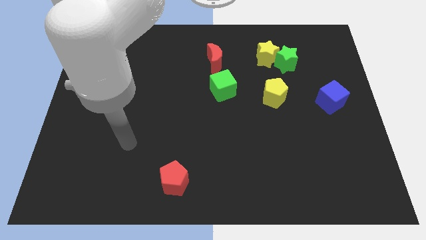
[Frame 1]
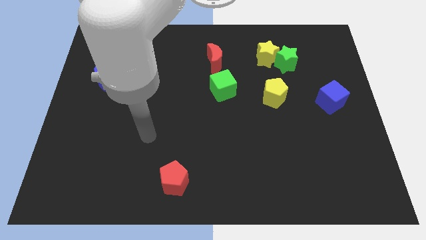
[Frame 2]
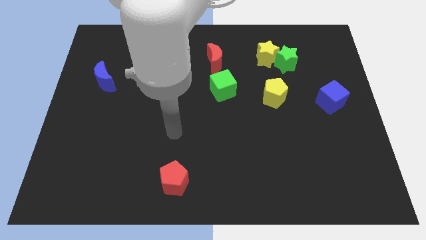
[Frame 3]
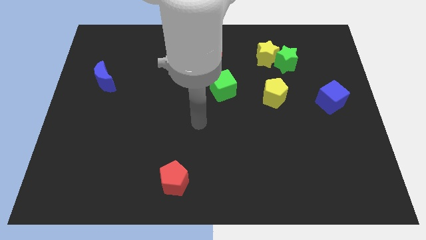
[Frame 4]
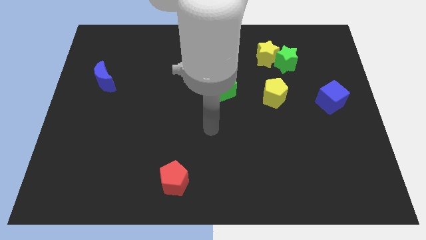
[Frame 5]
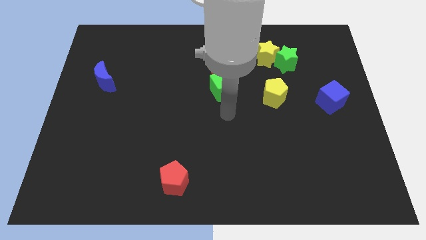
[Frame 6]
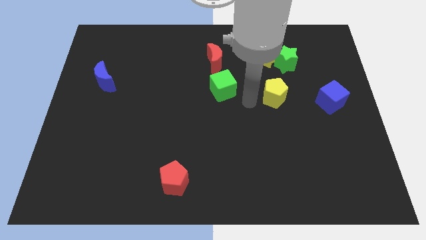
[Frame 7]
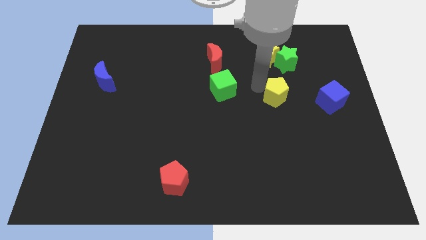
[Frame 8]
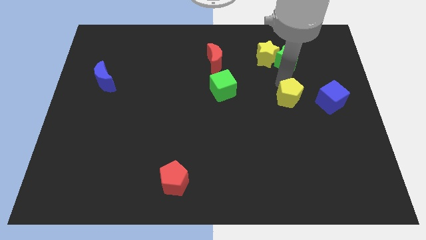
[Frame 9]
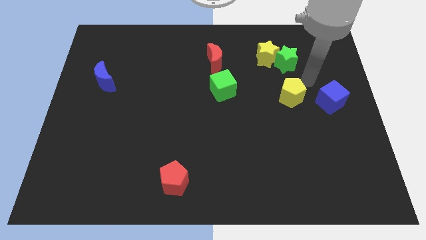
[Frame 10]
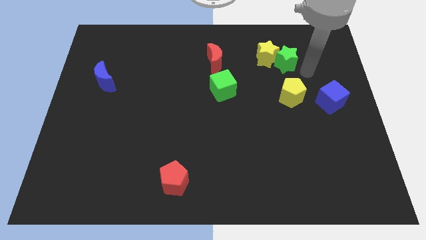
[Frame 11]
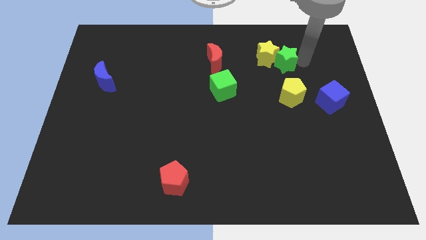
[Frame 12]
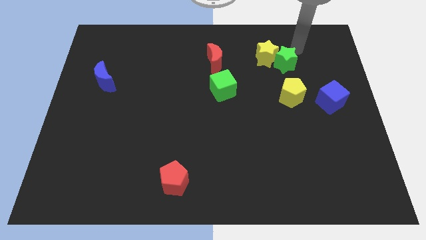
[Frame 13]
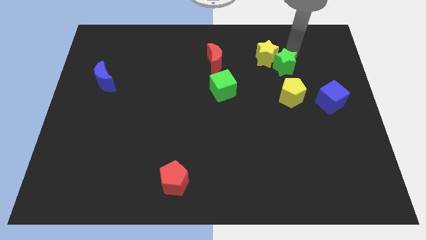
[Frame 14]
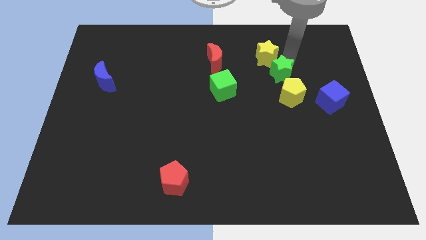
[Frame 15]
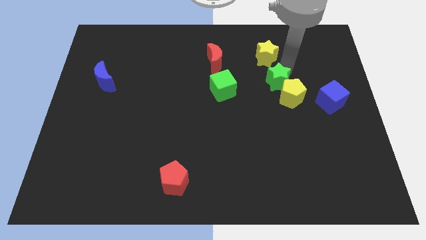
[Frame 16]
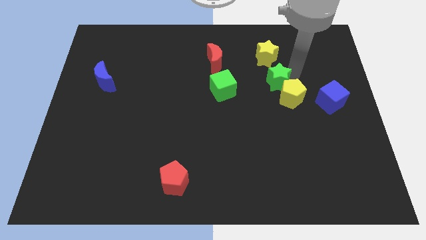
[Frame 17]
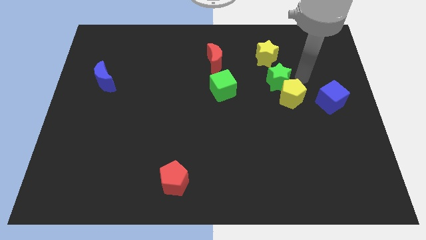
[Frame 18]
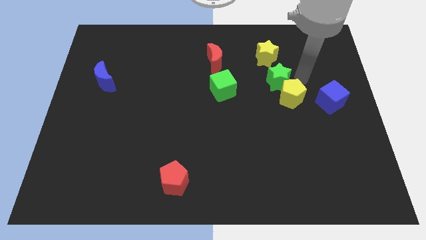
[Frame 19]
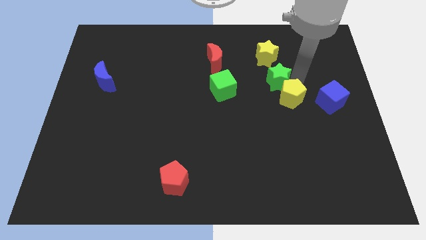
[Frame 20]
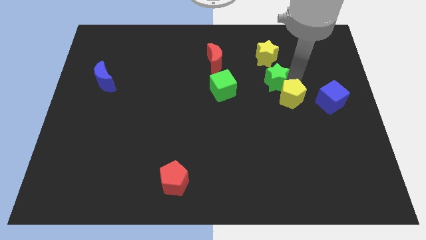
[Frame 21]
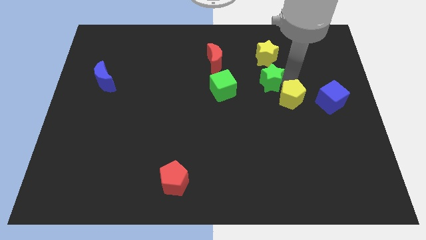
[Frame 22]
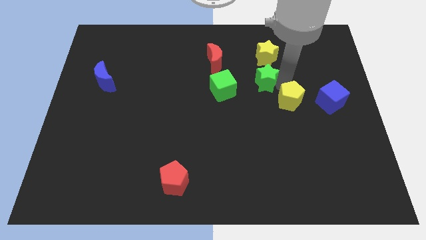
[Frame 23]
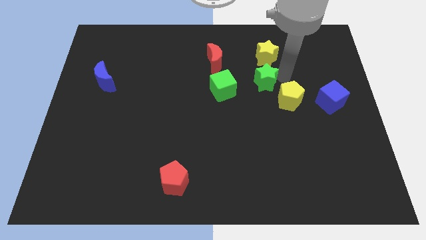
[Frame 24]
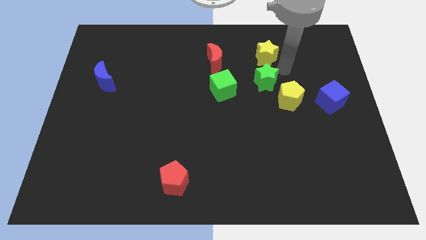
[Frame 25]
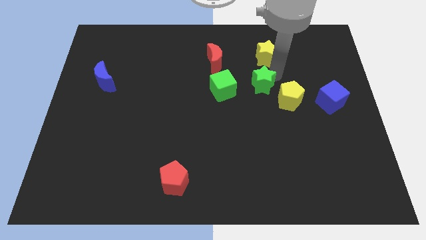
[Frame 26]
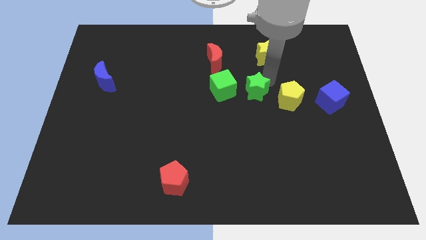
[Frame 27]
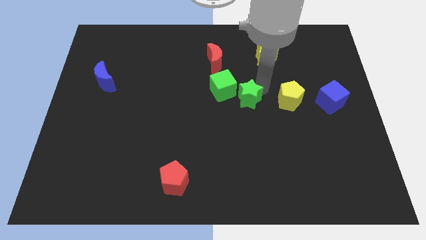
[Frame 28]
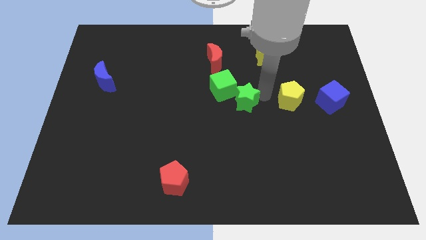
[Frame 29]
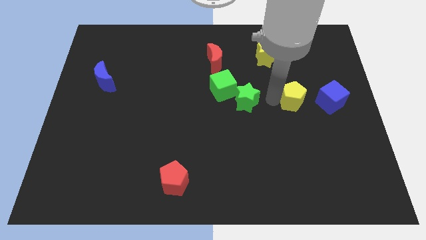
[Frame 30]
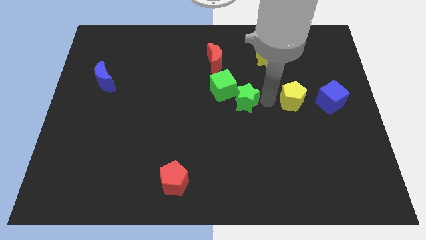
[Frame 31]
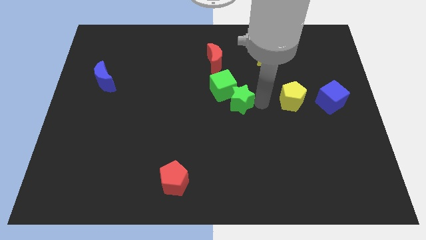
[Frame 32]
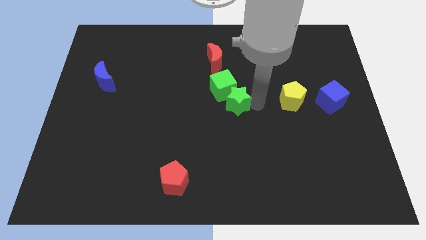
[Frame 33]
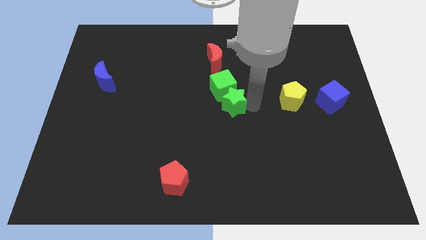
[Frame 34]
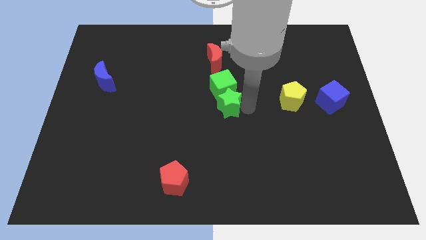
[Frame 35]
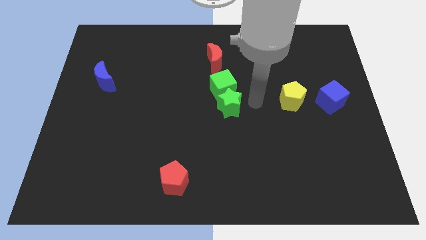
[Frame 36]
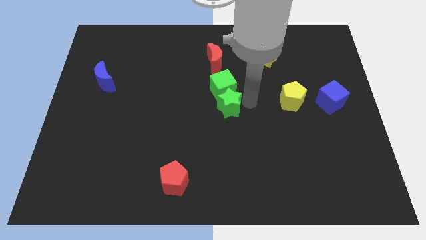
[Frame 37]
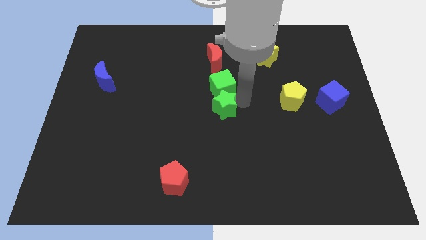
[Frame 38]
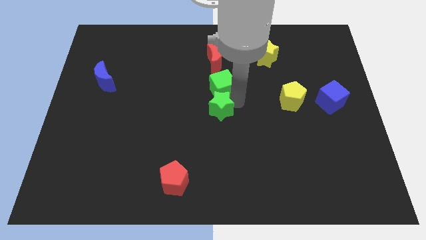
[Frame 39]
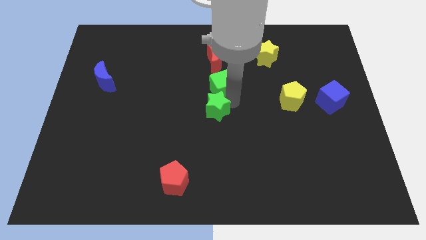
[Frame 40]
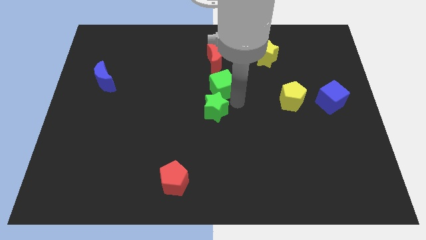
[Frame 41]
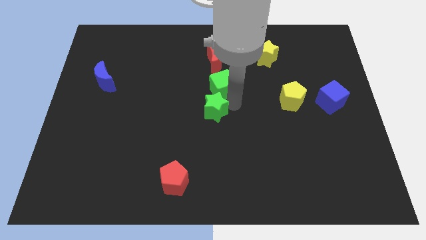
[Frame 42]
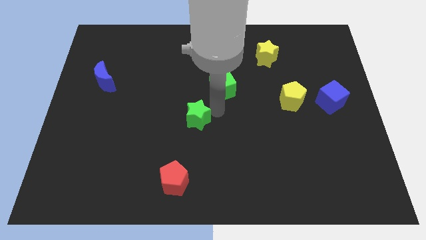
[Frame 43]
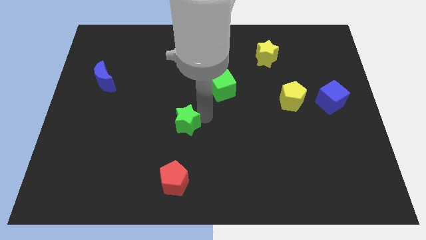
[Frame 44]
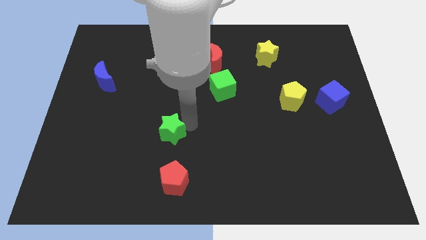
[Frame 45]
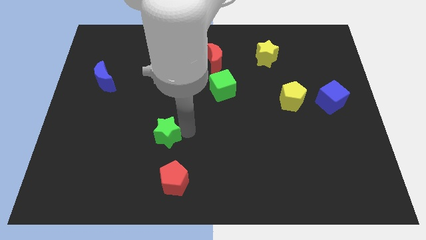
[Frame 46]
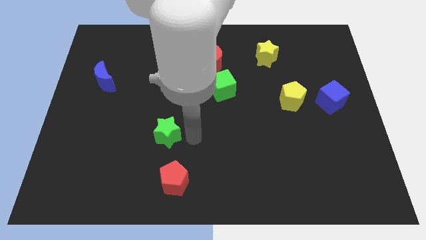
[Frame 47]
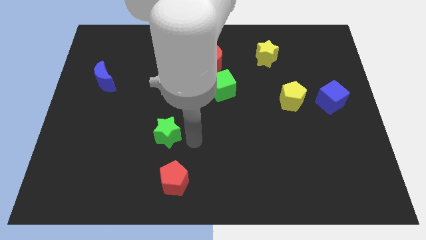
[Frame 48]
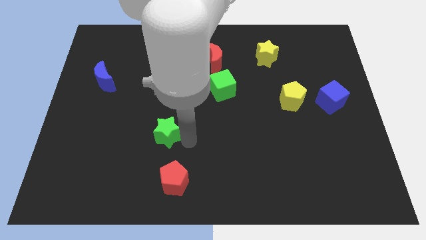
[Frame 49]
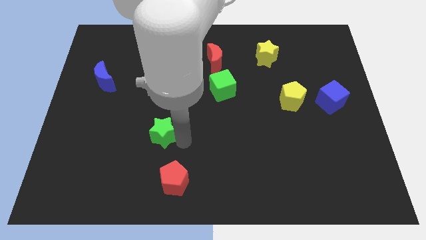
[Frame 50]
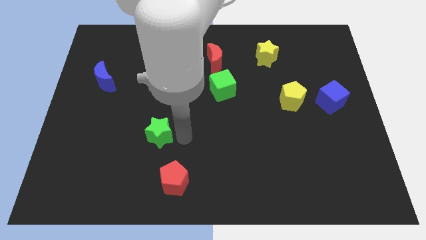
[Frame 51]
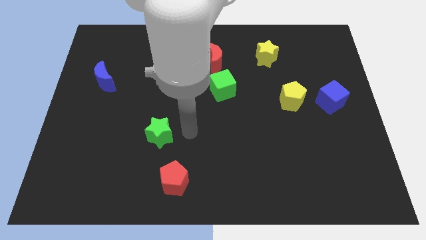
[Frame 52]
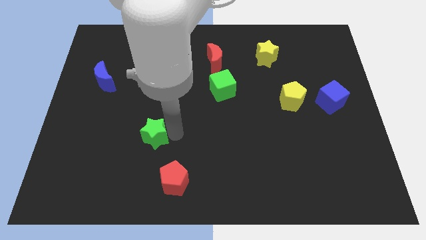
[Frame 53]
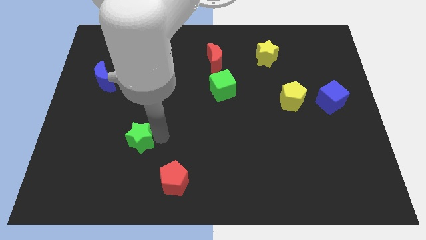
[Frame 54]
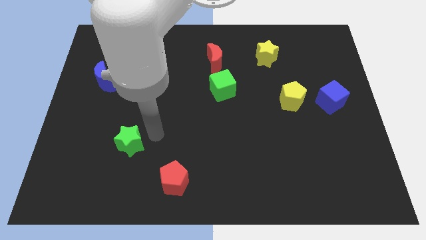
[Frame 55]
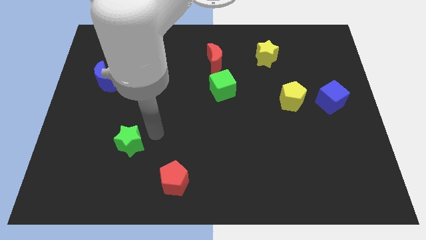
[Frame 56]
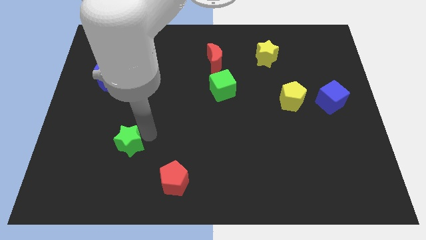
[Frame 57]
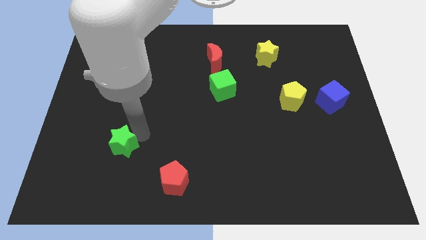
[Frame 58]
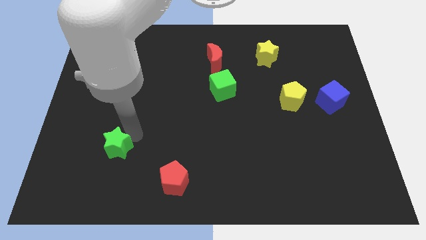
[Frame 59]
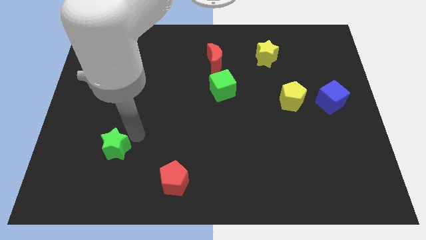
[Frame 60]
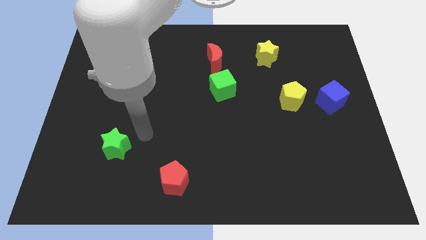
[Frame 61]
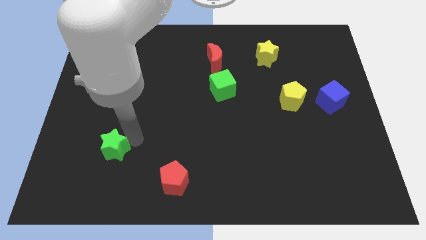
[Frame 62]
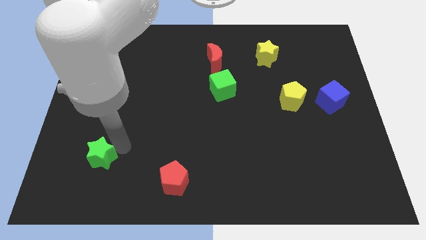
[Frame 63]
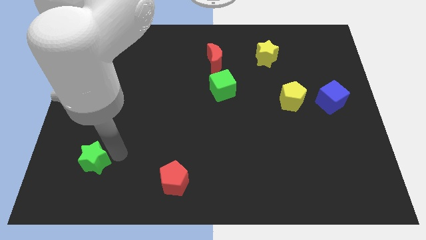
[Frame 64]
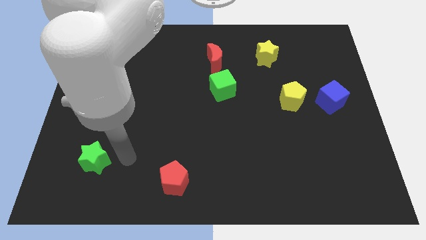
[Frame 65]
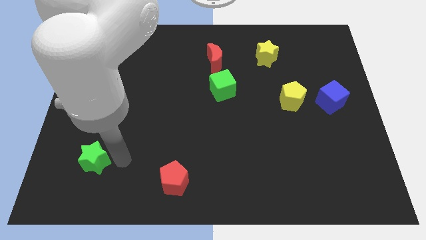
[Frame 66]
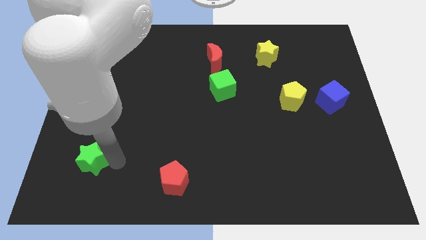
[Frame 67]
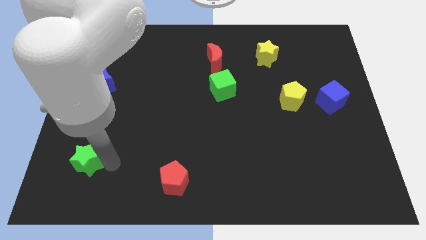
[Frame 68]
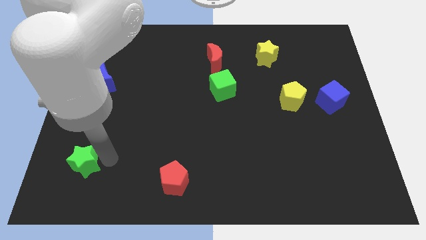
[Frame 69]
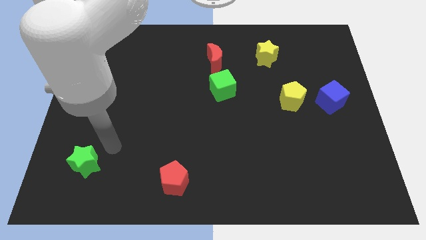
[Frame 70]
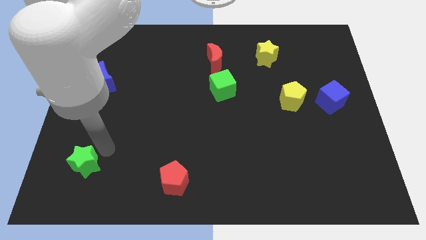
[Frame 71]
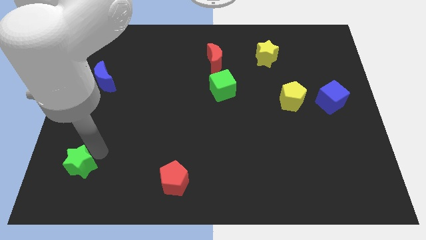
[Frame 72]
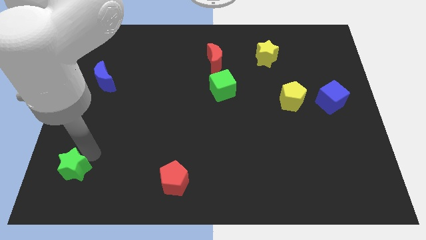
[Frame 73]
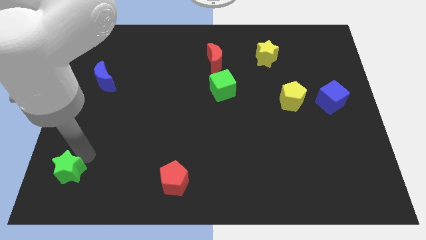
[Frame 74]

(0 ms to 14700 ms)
move the green star to the bottom left
